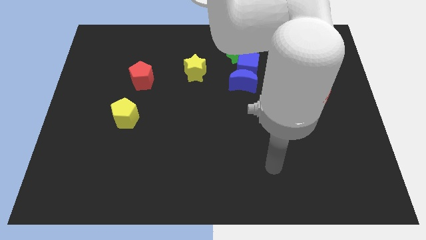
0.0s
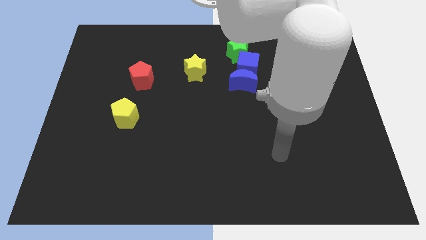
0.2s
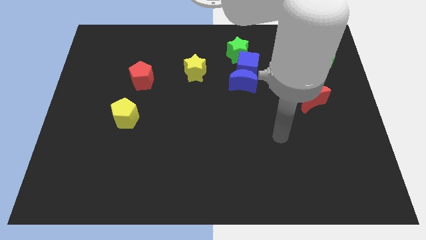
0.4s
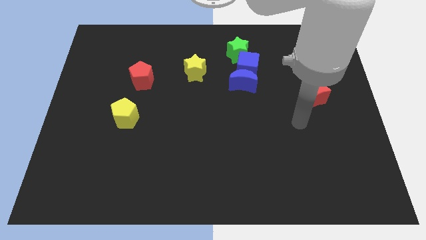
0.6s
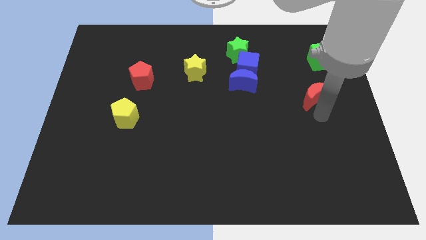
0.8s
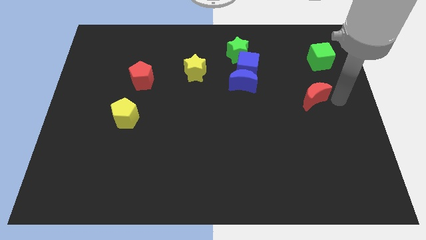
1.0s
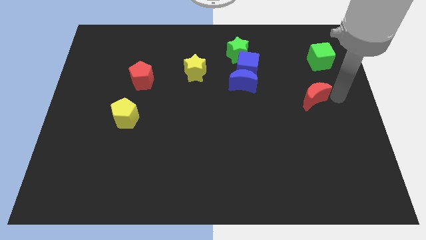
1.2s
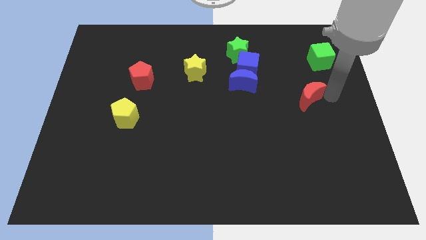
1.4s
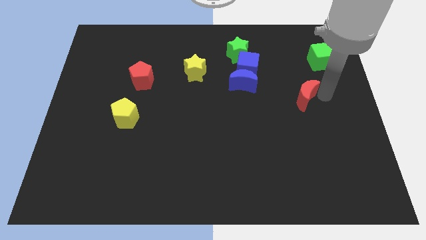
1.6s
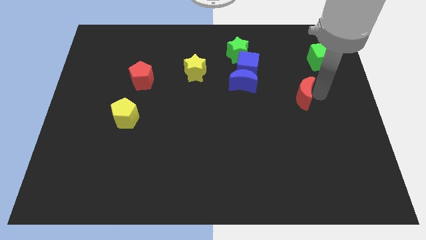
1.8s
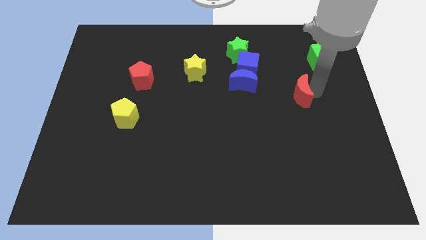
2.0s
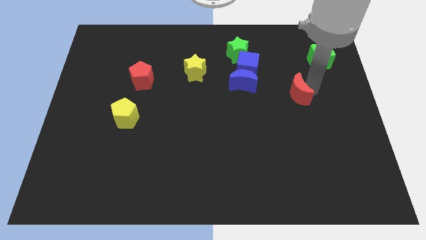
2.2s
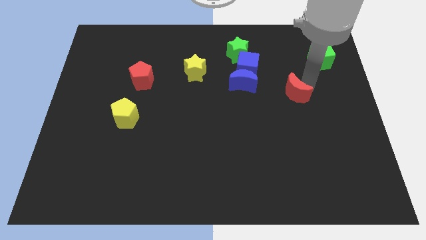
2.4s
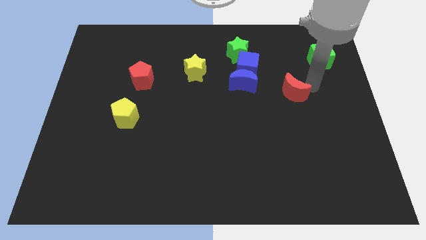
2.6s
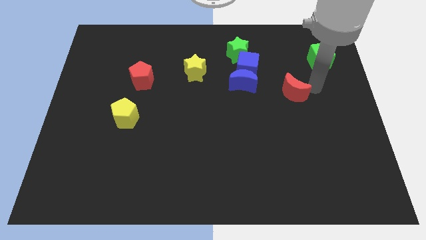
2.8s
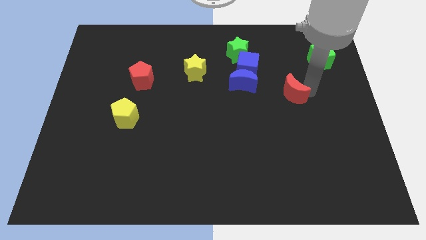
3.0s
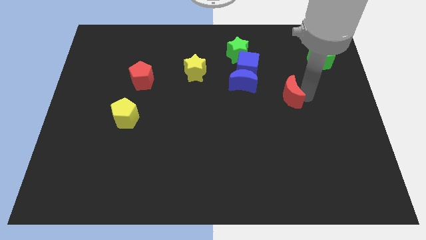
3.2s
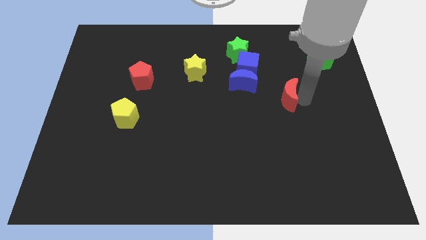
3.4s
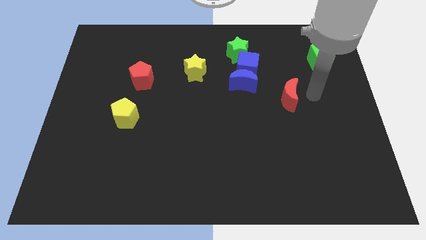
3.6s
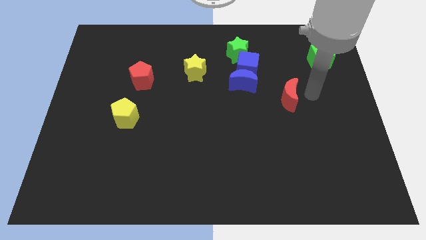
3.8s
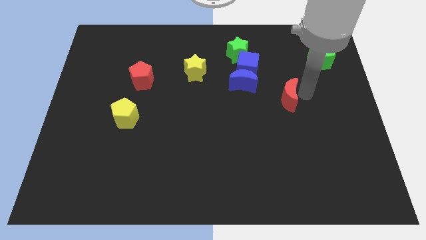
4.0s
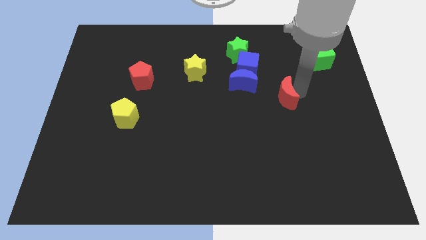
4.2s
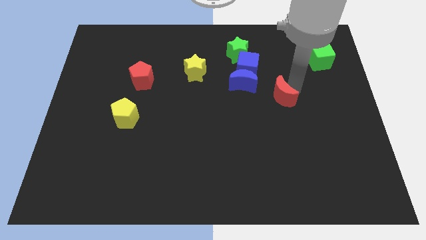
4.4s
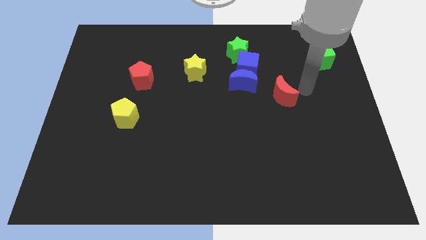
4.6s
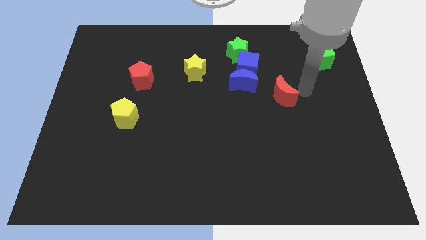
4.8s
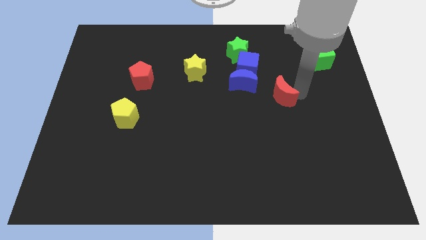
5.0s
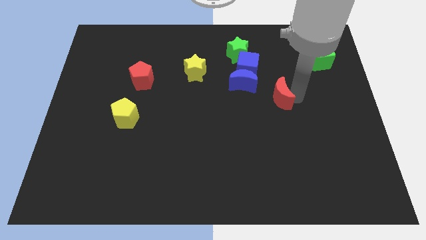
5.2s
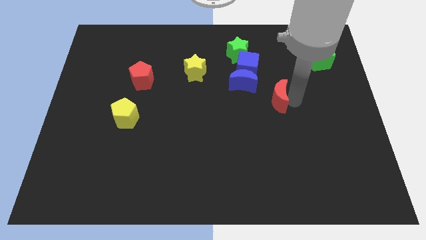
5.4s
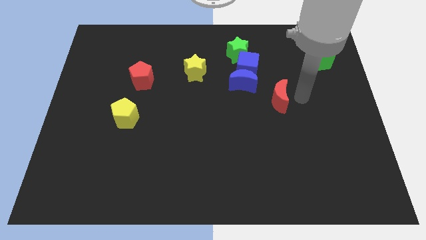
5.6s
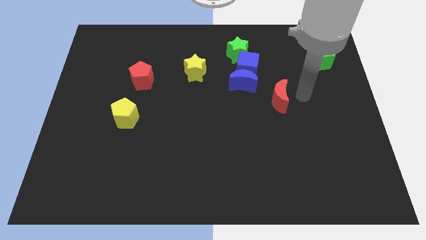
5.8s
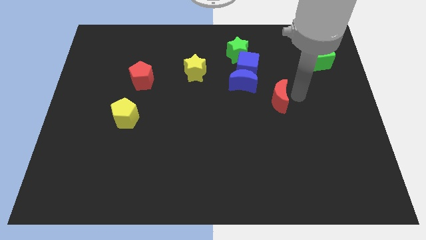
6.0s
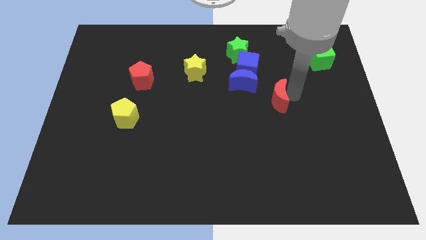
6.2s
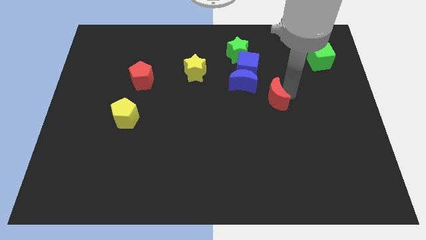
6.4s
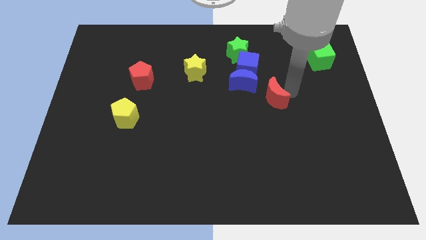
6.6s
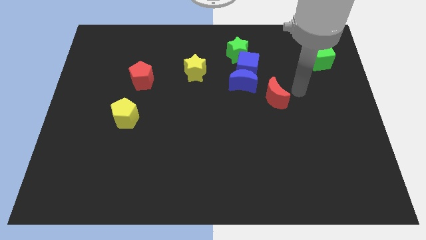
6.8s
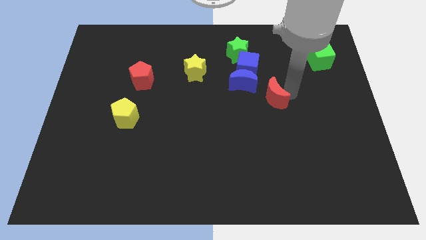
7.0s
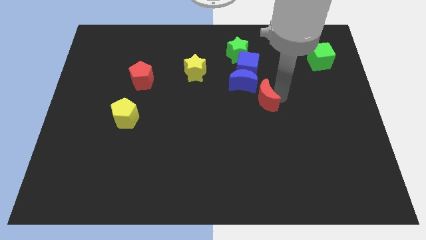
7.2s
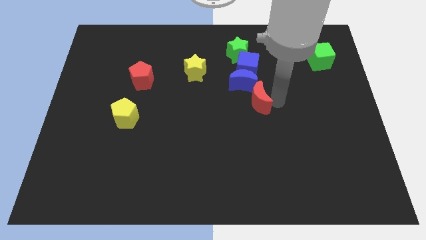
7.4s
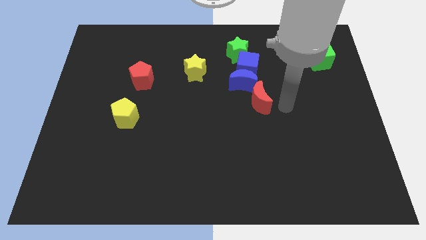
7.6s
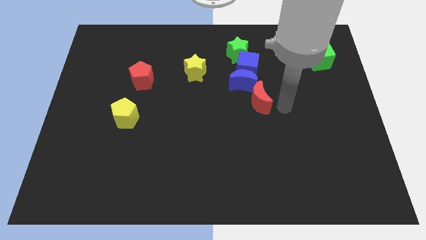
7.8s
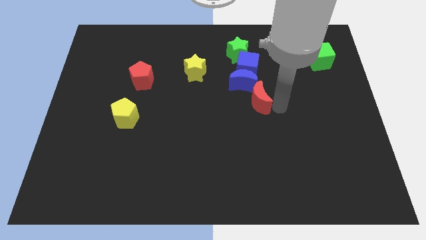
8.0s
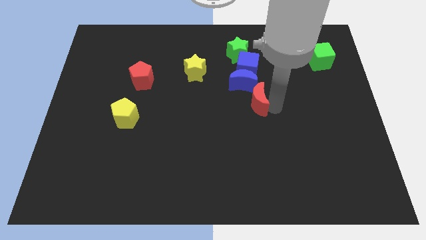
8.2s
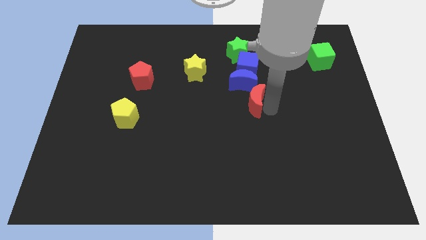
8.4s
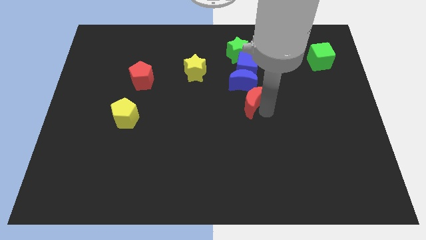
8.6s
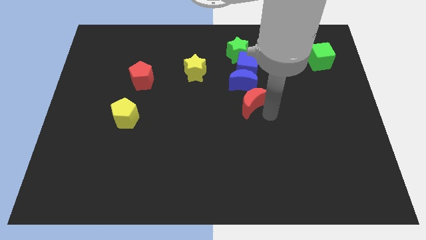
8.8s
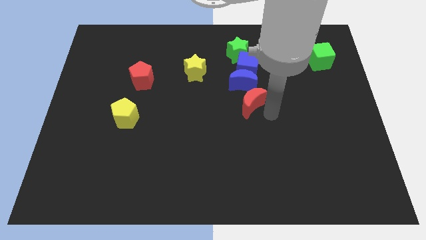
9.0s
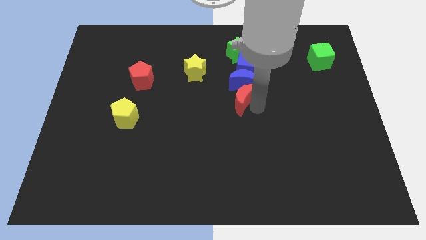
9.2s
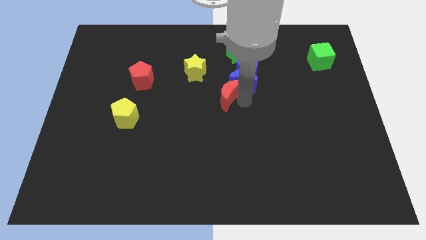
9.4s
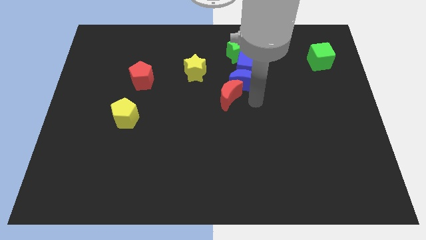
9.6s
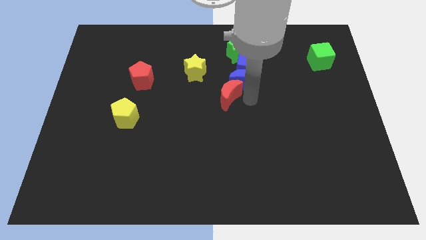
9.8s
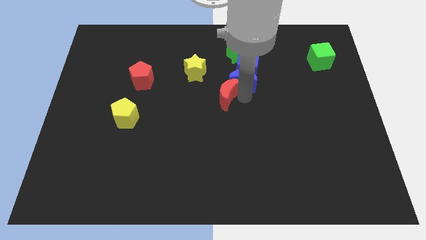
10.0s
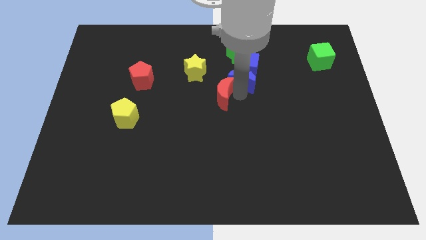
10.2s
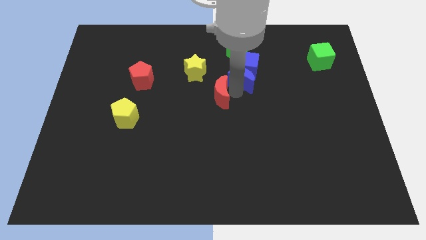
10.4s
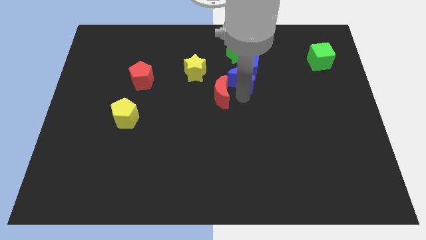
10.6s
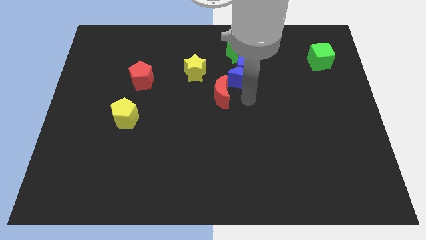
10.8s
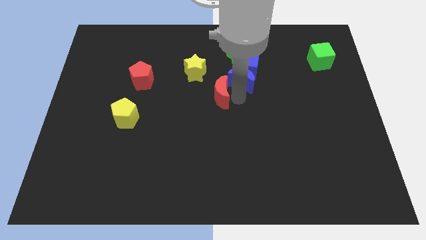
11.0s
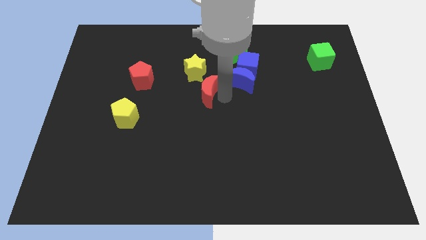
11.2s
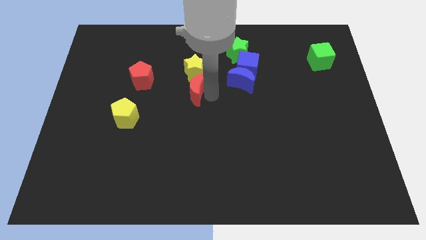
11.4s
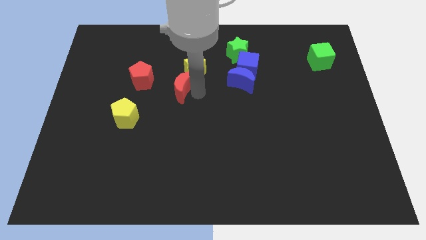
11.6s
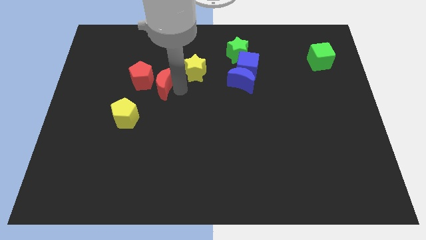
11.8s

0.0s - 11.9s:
slide the red moon next to the red pentagon

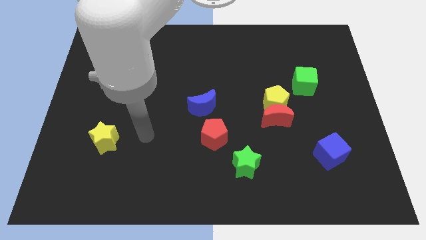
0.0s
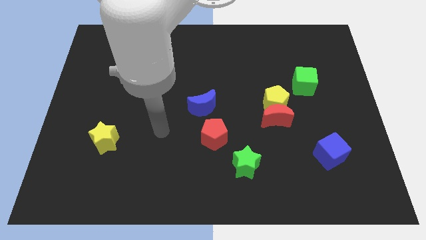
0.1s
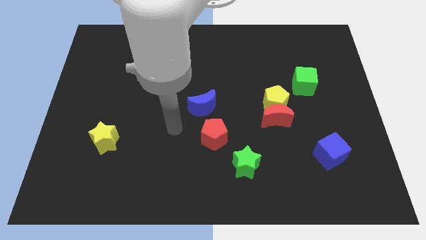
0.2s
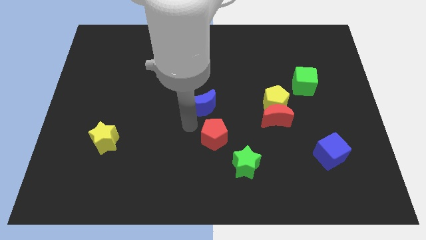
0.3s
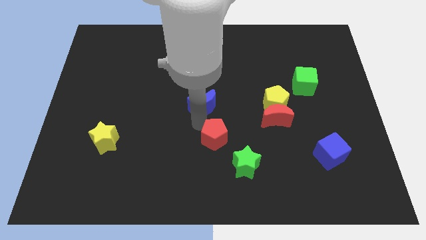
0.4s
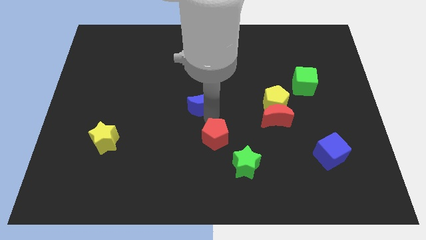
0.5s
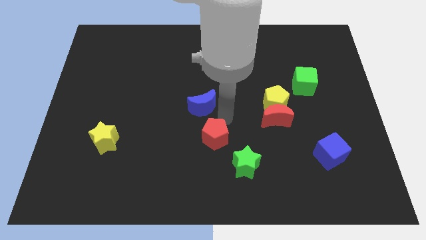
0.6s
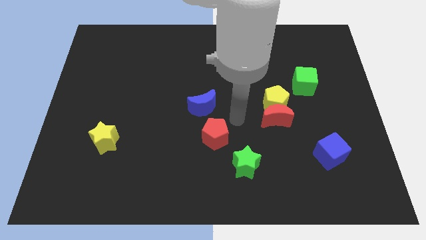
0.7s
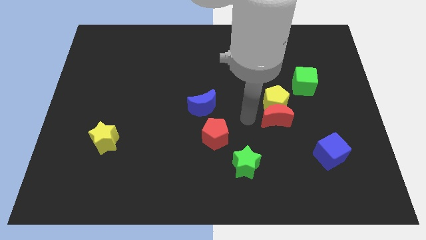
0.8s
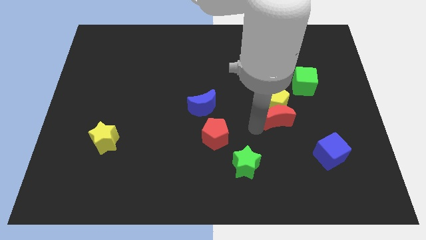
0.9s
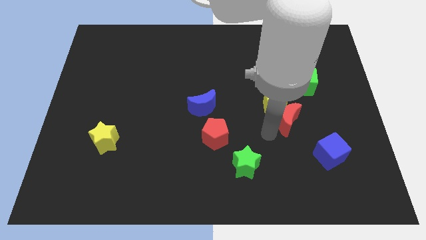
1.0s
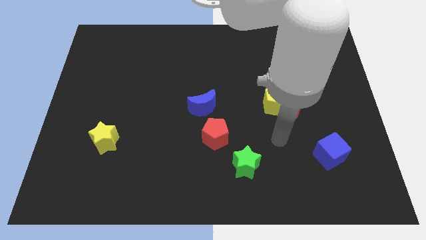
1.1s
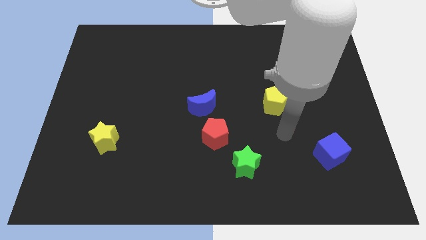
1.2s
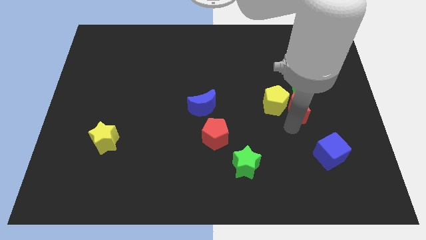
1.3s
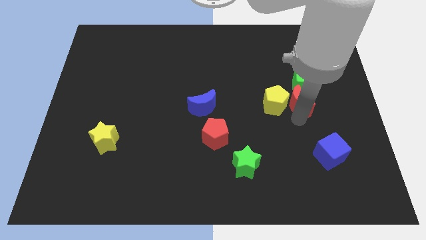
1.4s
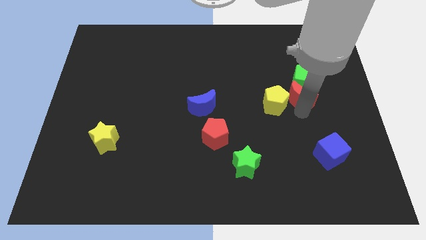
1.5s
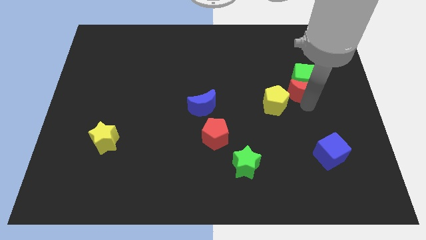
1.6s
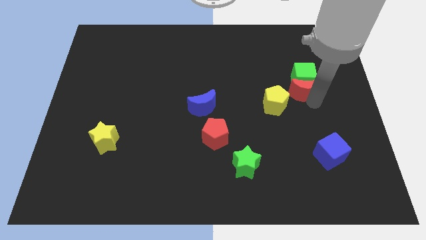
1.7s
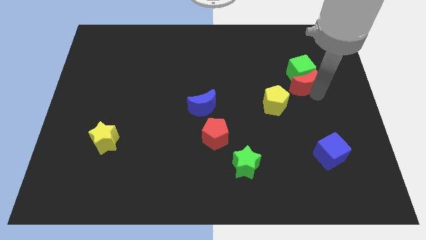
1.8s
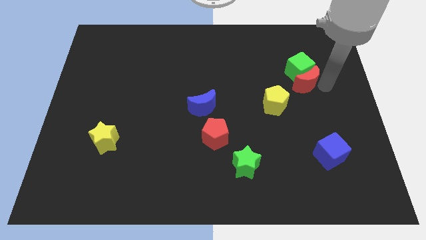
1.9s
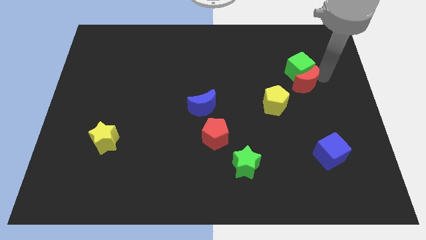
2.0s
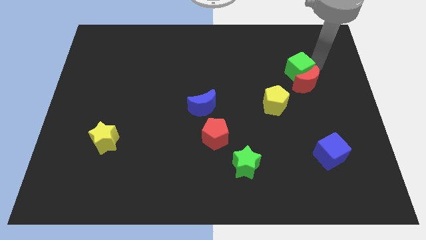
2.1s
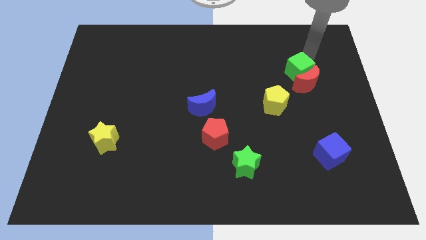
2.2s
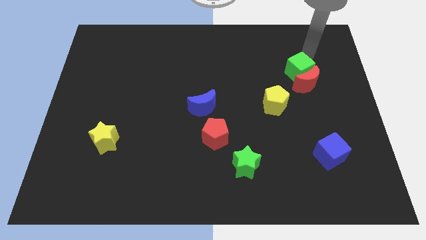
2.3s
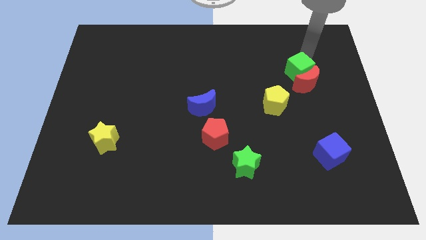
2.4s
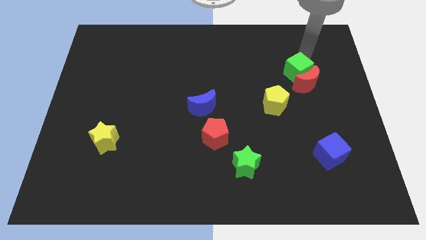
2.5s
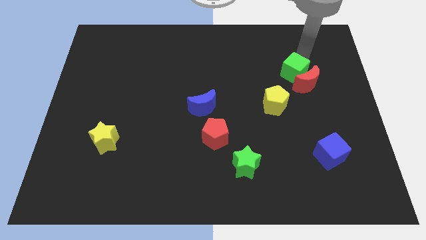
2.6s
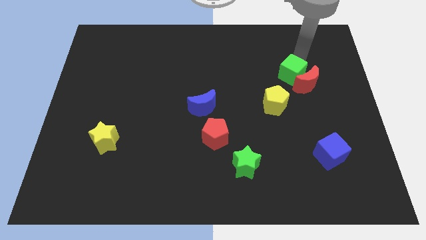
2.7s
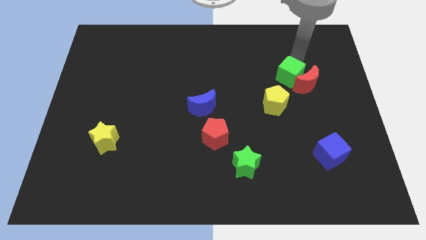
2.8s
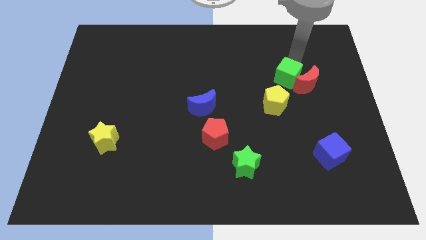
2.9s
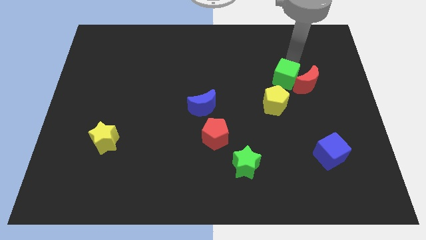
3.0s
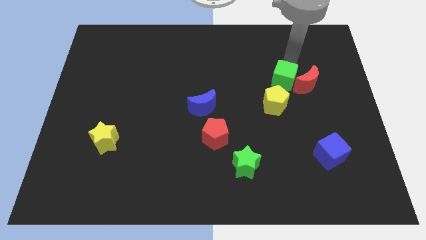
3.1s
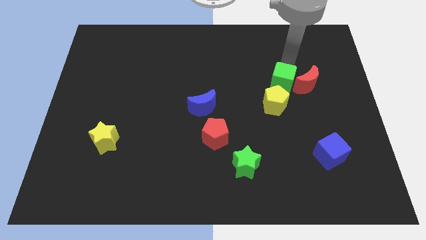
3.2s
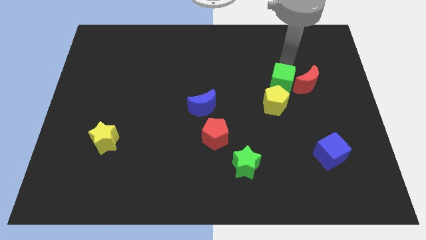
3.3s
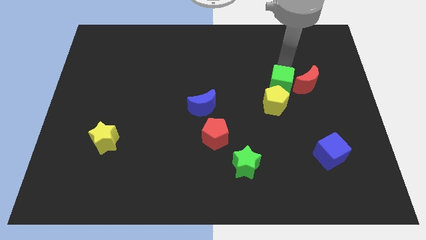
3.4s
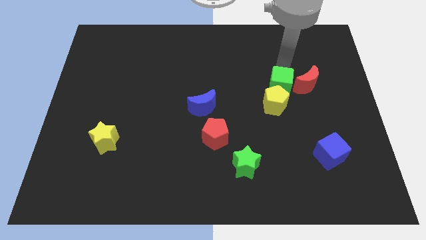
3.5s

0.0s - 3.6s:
move the green cube towards the yellow pentagon
